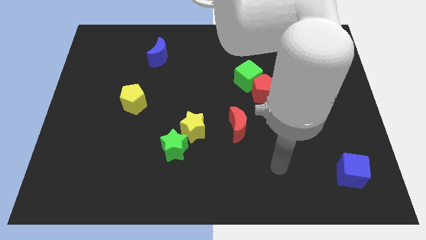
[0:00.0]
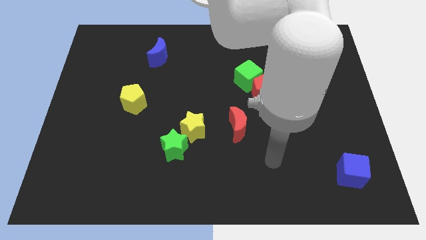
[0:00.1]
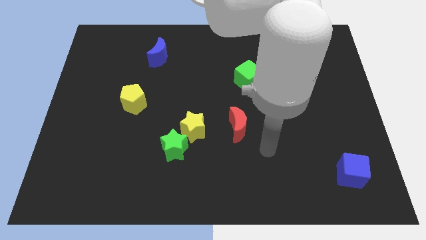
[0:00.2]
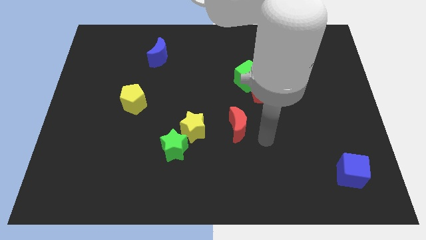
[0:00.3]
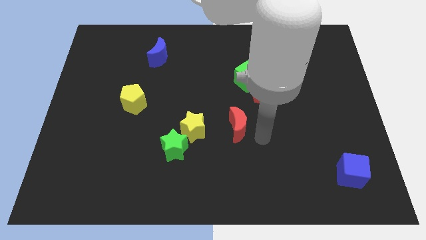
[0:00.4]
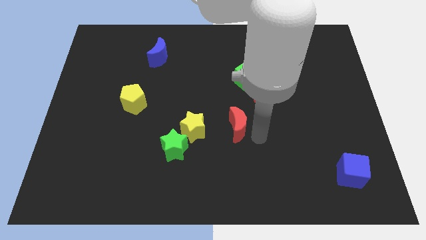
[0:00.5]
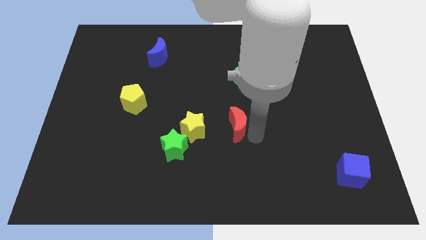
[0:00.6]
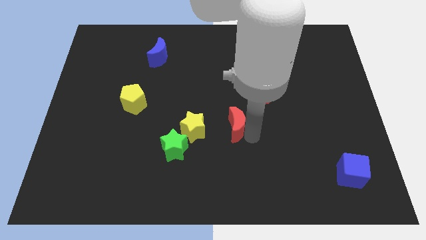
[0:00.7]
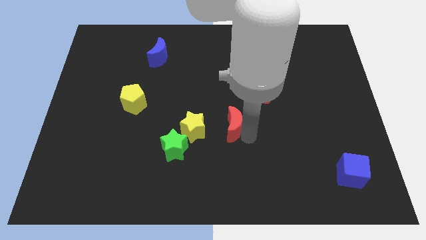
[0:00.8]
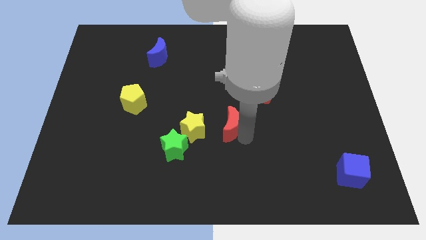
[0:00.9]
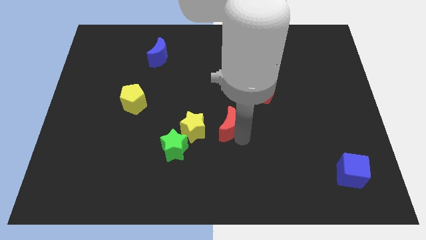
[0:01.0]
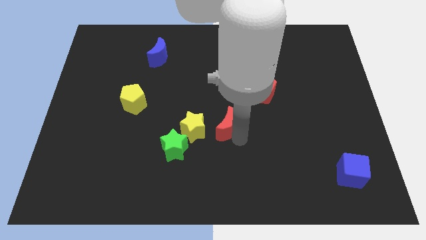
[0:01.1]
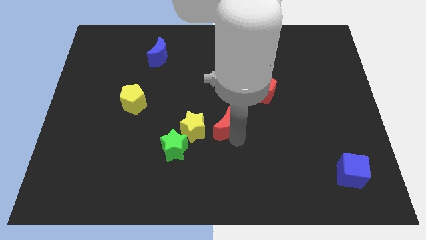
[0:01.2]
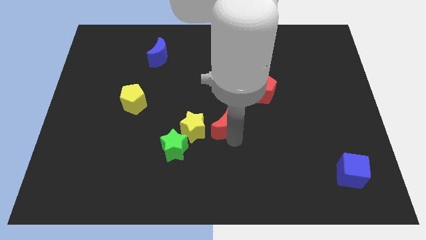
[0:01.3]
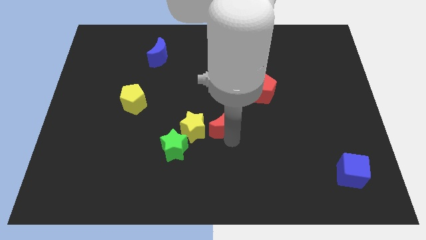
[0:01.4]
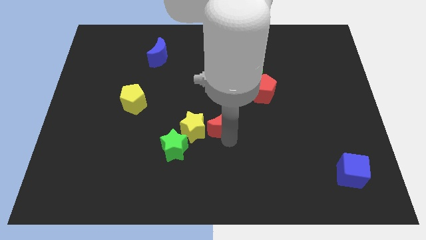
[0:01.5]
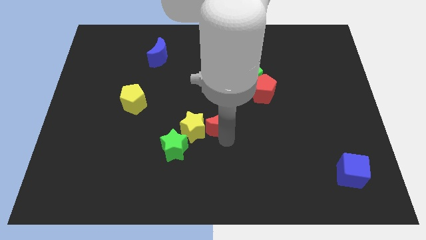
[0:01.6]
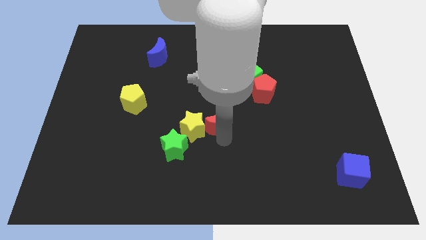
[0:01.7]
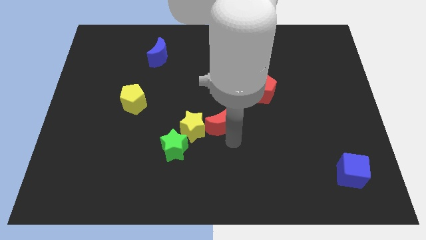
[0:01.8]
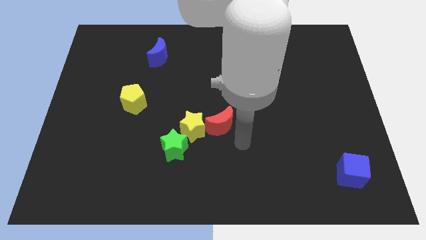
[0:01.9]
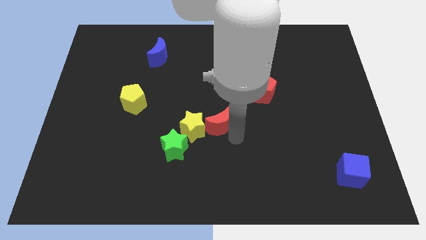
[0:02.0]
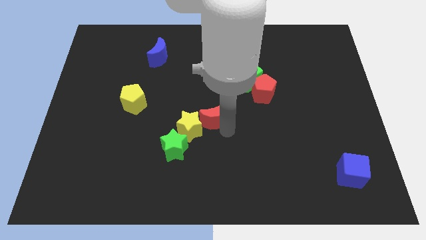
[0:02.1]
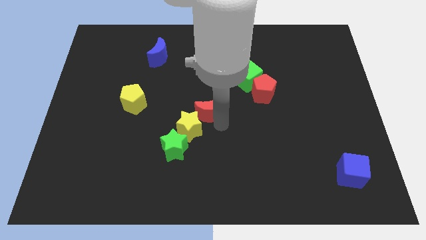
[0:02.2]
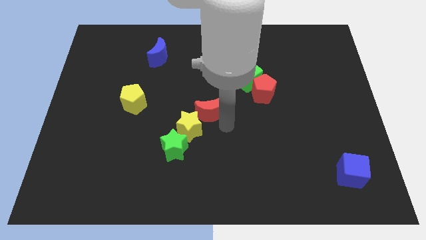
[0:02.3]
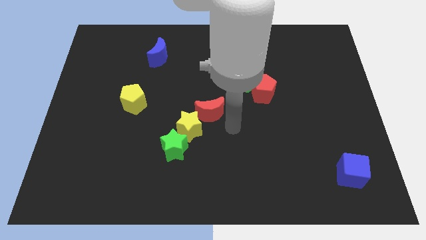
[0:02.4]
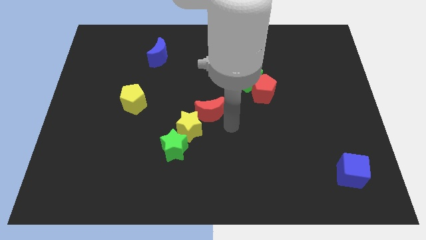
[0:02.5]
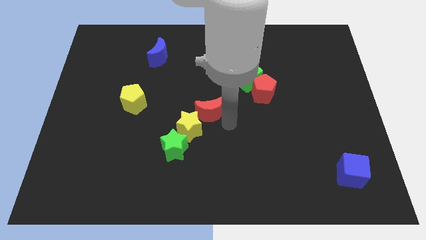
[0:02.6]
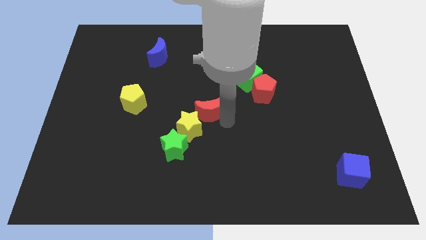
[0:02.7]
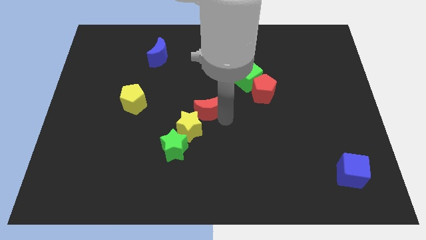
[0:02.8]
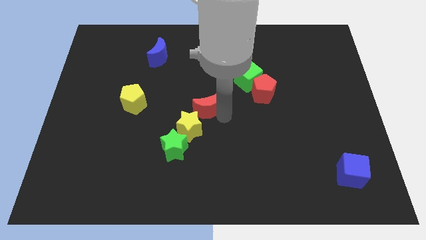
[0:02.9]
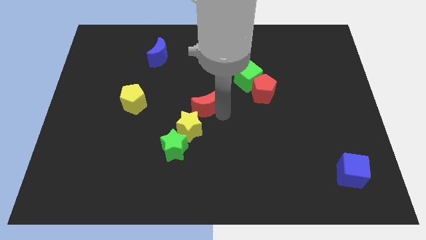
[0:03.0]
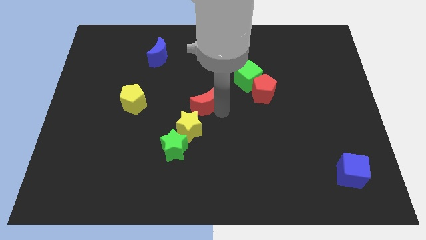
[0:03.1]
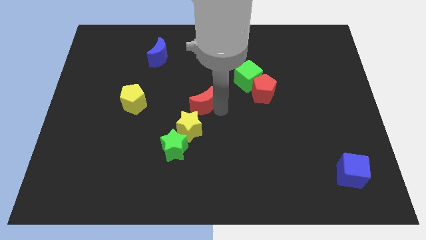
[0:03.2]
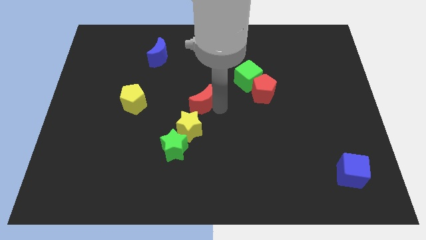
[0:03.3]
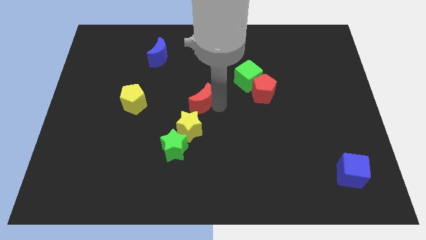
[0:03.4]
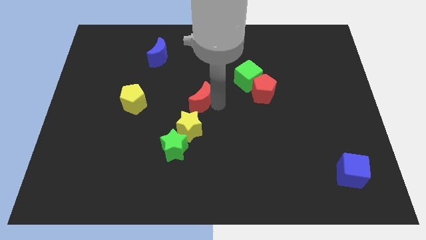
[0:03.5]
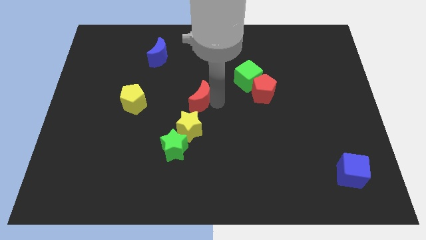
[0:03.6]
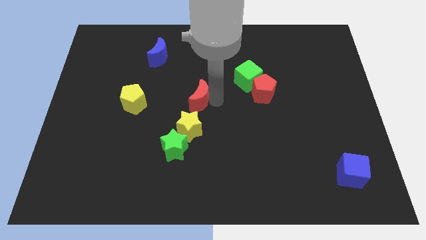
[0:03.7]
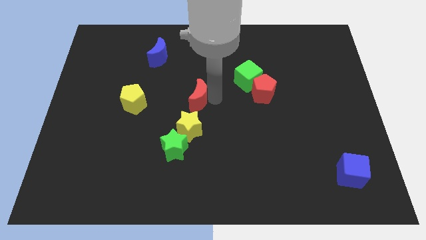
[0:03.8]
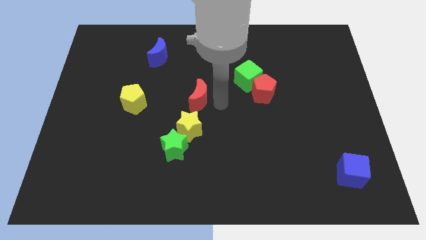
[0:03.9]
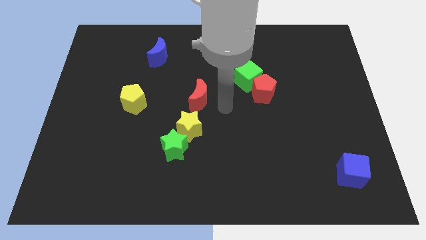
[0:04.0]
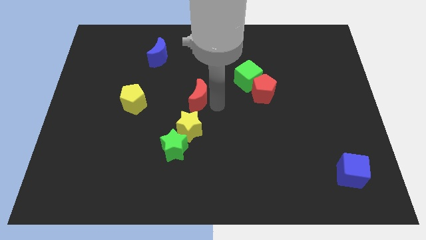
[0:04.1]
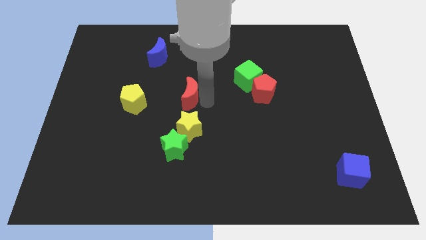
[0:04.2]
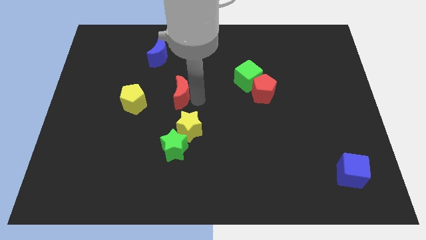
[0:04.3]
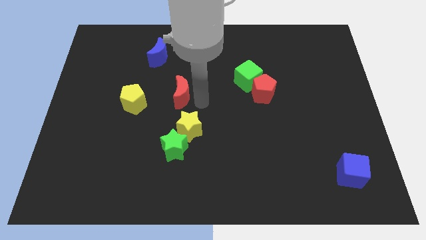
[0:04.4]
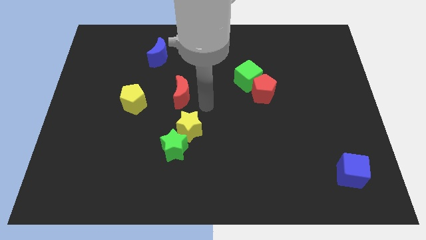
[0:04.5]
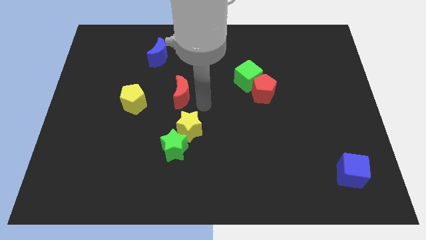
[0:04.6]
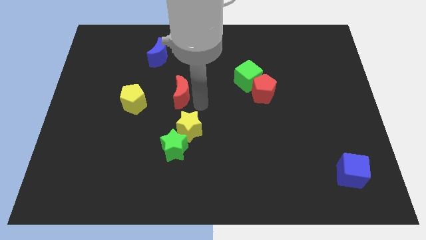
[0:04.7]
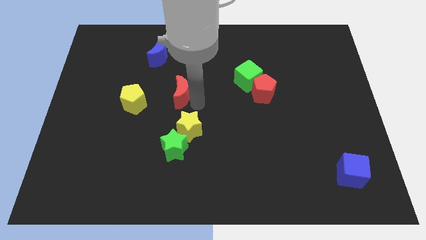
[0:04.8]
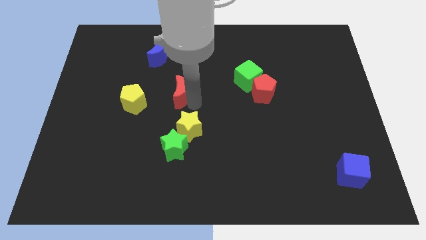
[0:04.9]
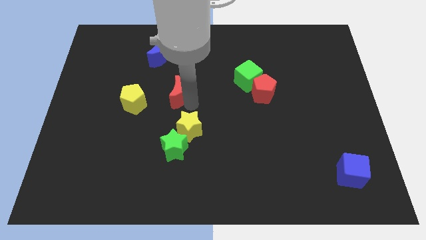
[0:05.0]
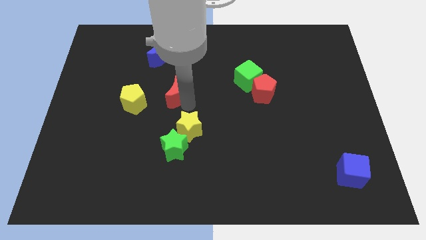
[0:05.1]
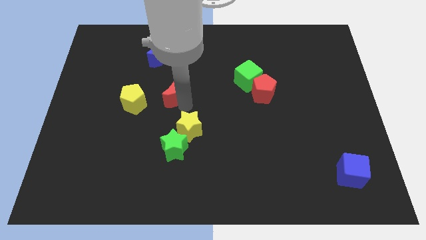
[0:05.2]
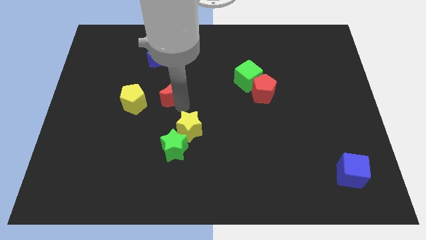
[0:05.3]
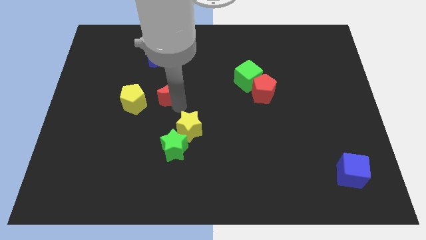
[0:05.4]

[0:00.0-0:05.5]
move the red moon to the top right of the yellow pentagon

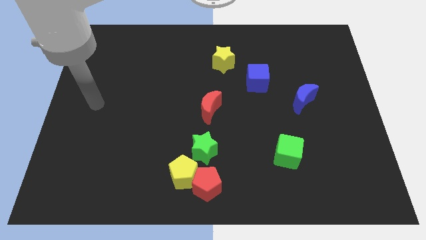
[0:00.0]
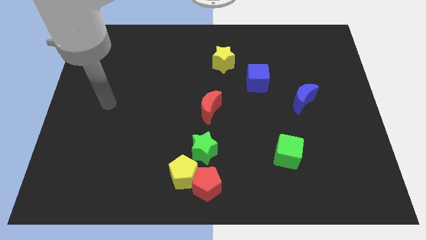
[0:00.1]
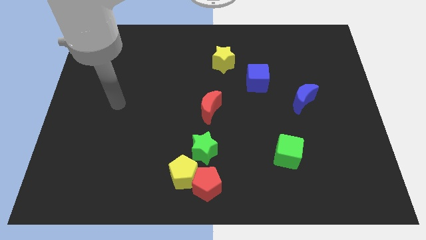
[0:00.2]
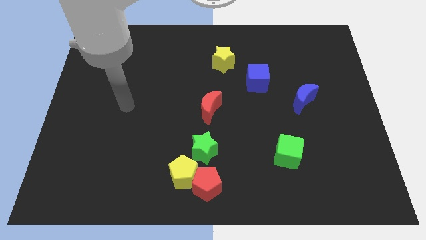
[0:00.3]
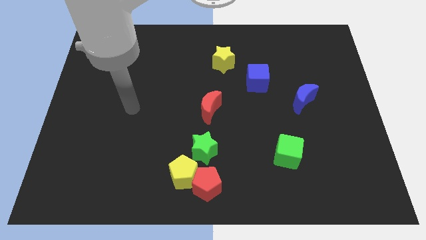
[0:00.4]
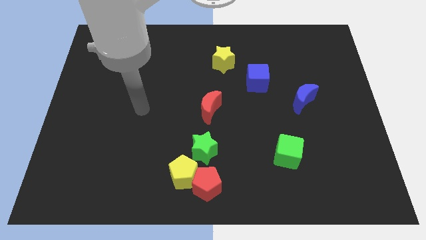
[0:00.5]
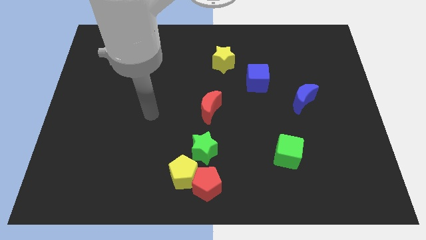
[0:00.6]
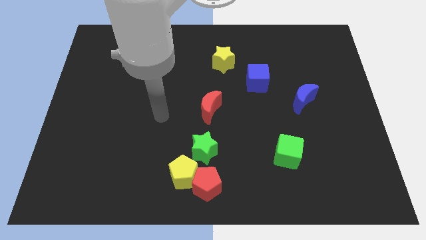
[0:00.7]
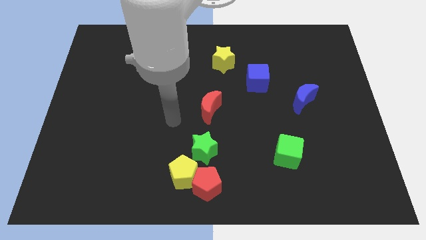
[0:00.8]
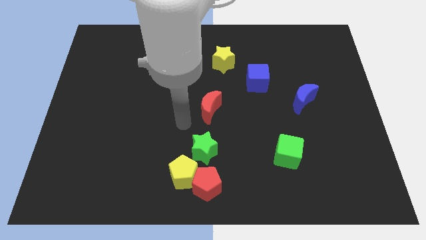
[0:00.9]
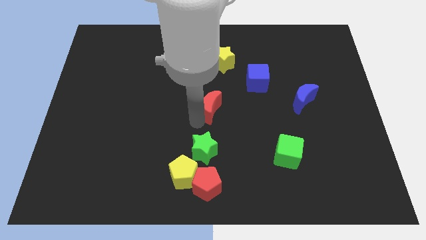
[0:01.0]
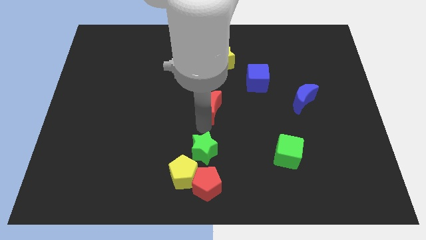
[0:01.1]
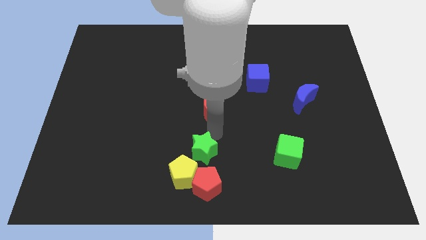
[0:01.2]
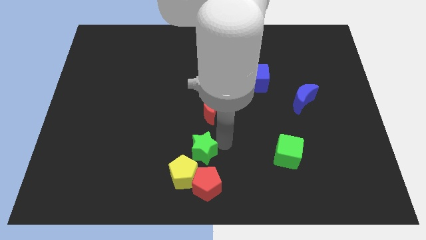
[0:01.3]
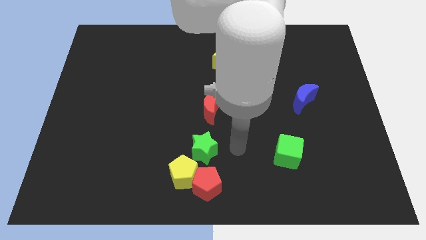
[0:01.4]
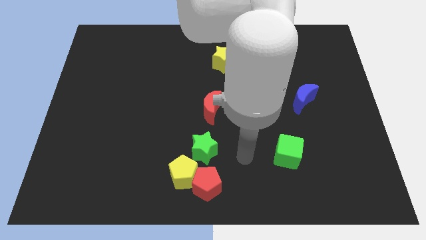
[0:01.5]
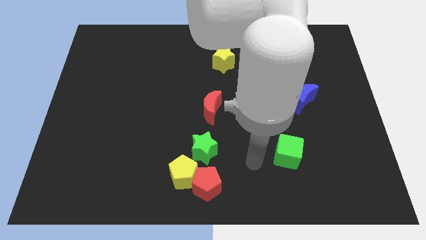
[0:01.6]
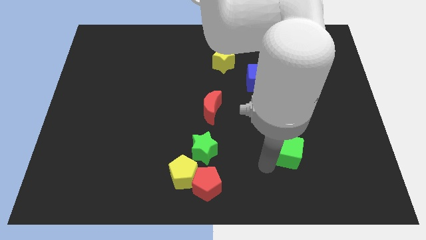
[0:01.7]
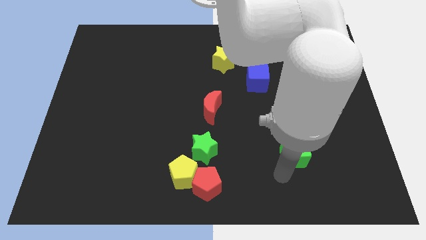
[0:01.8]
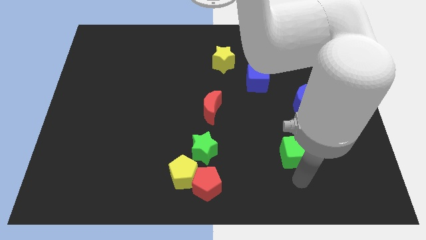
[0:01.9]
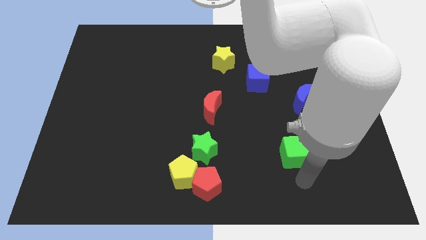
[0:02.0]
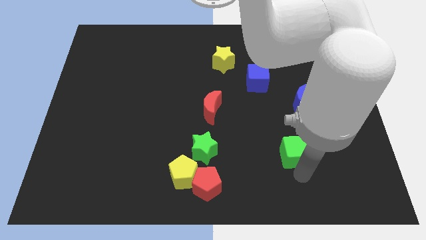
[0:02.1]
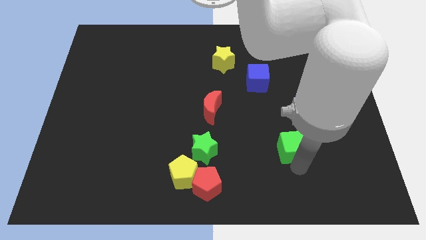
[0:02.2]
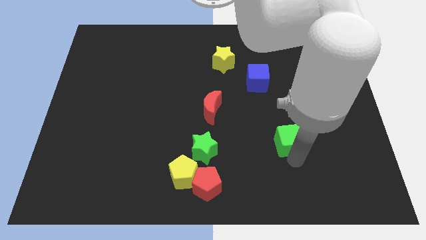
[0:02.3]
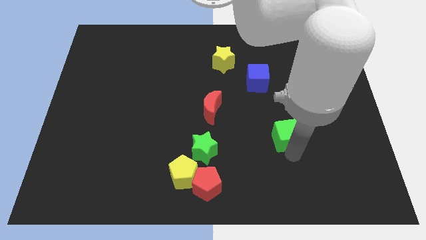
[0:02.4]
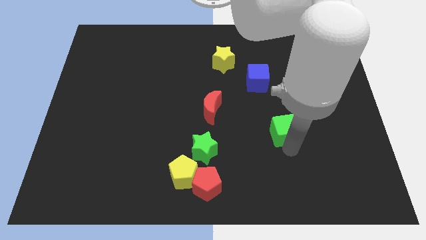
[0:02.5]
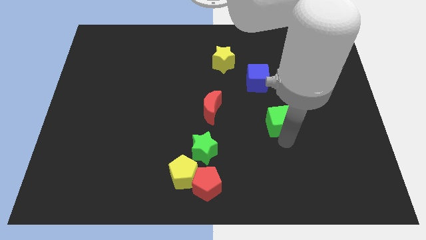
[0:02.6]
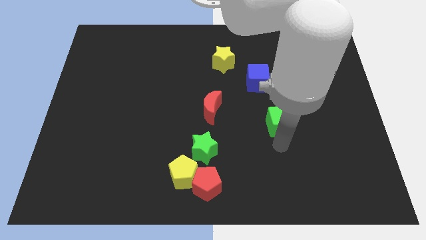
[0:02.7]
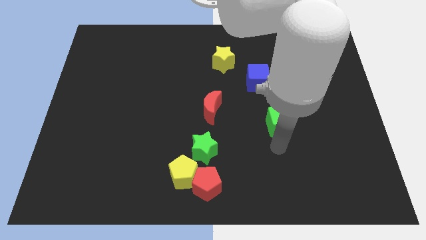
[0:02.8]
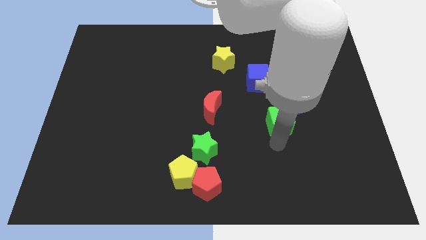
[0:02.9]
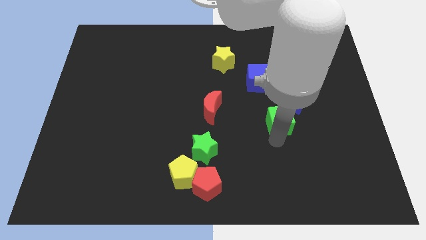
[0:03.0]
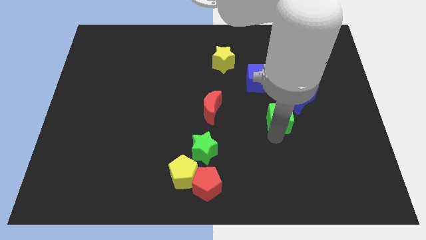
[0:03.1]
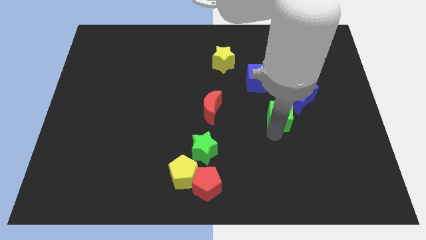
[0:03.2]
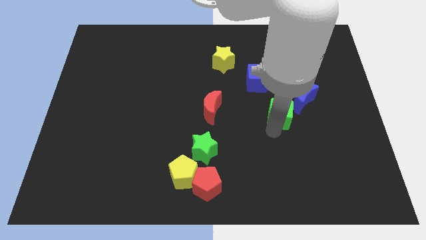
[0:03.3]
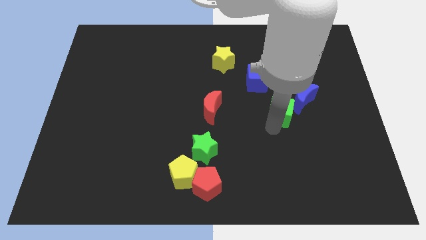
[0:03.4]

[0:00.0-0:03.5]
put the green cube diagonally down and to the right of the blue cube
